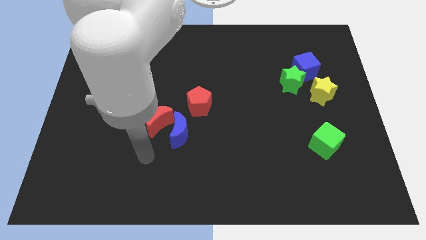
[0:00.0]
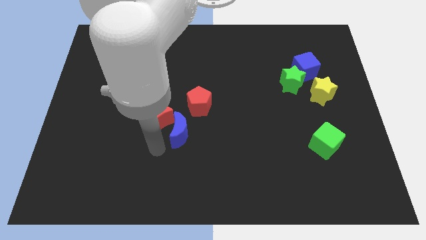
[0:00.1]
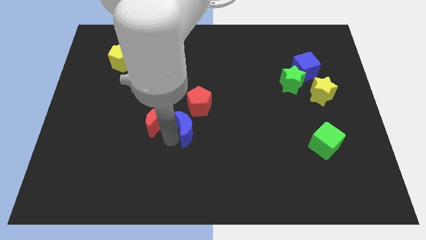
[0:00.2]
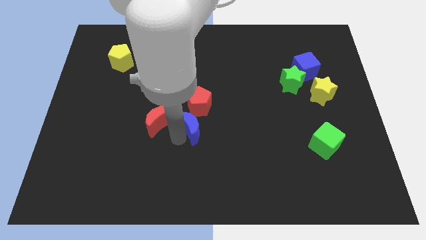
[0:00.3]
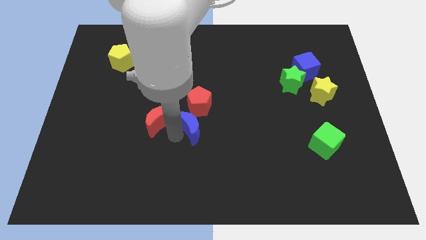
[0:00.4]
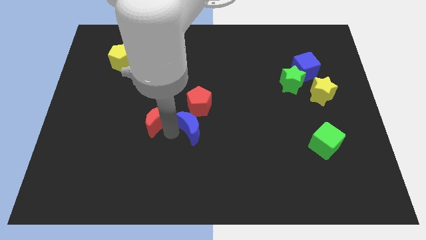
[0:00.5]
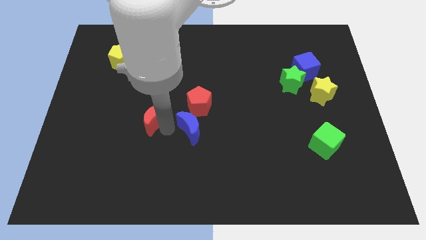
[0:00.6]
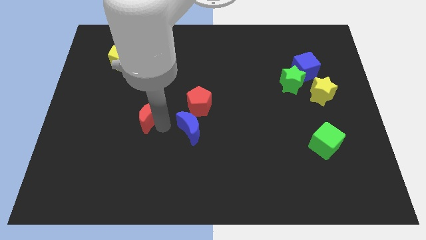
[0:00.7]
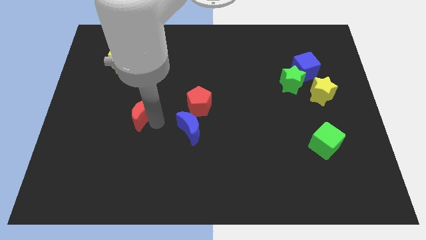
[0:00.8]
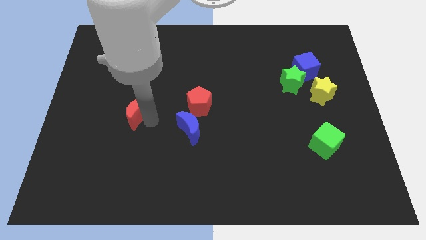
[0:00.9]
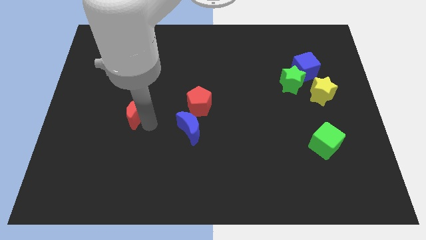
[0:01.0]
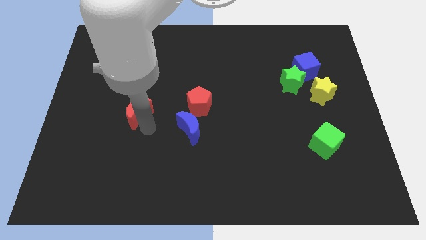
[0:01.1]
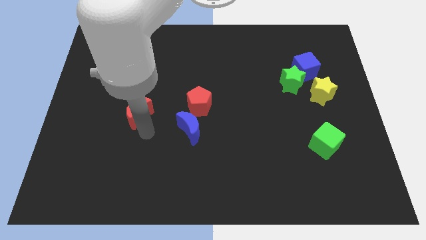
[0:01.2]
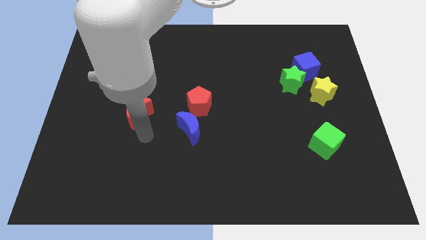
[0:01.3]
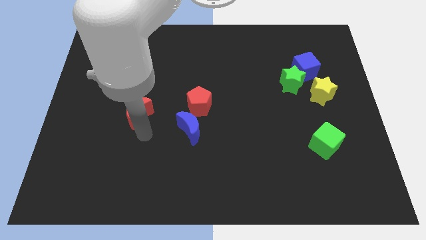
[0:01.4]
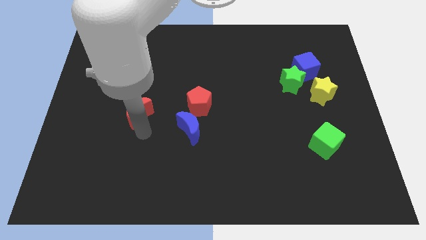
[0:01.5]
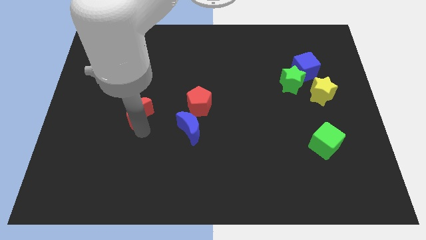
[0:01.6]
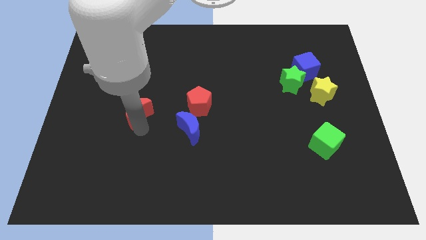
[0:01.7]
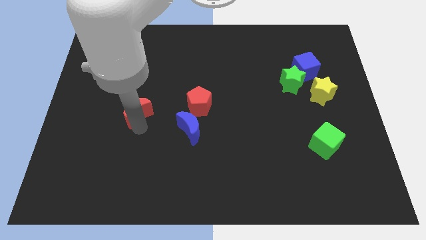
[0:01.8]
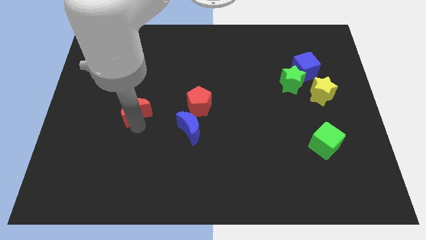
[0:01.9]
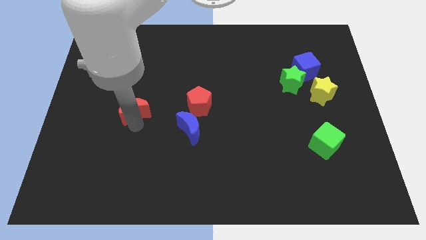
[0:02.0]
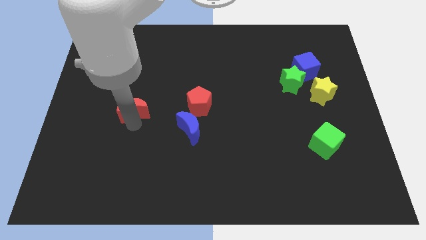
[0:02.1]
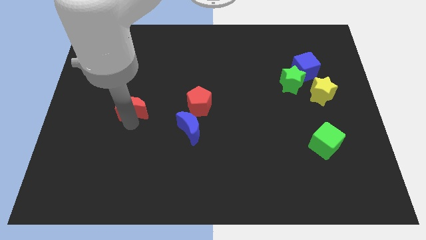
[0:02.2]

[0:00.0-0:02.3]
slide the red moon up and then to the left a bit

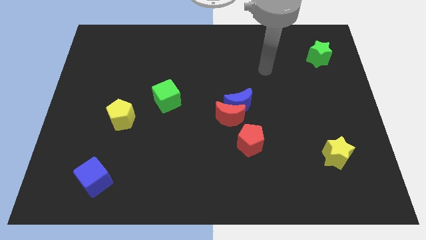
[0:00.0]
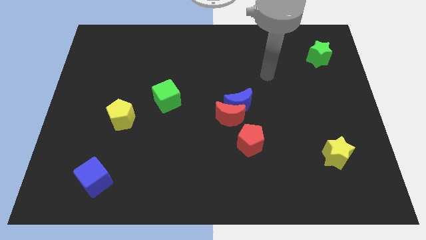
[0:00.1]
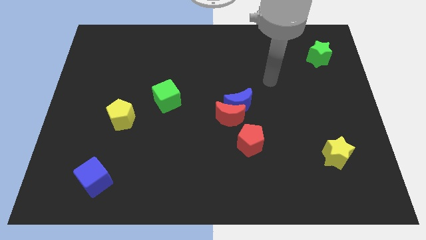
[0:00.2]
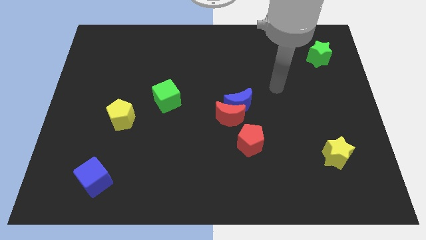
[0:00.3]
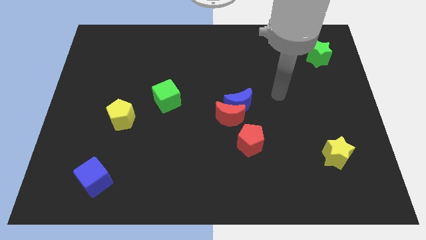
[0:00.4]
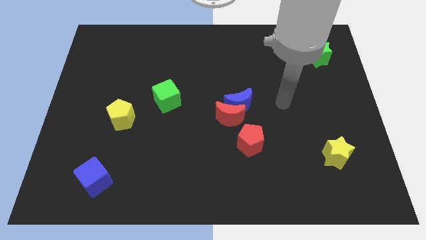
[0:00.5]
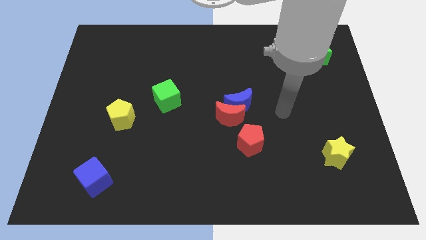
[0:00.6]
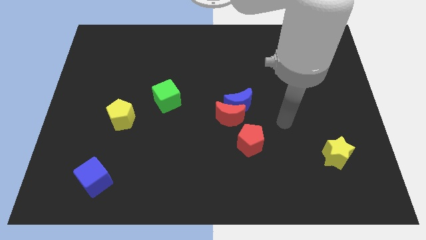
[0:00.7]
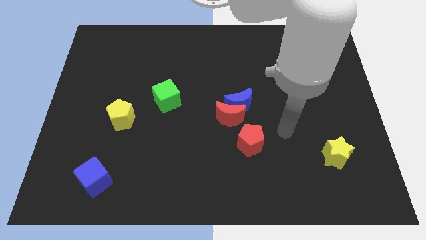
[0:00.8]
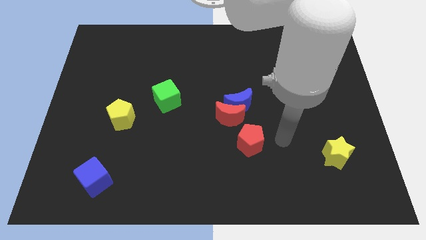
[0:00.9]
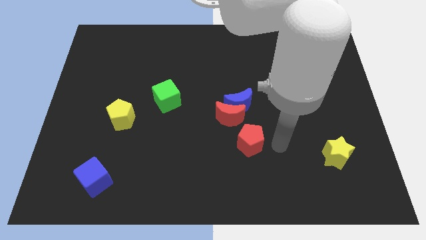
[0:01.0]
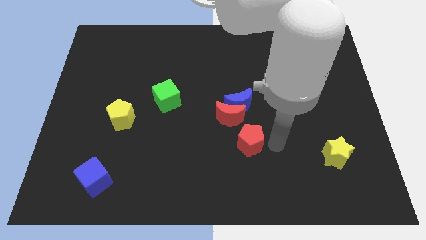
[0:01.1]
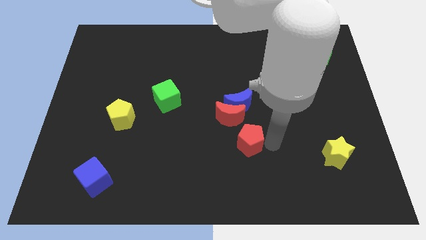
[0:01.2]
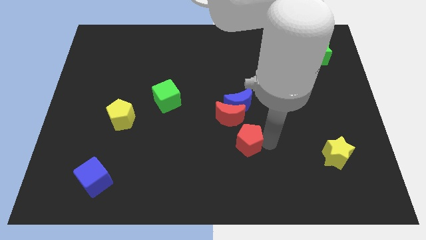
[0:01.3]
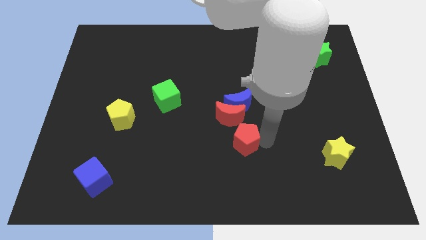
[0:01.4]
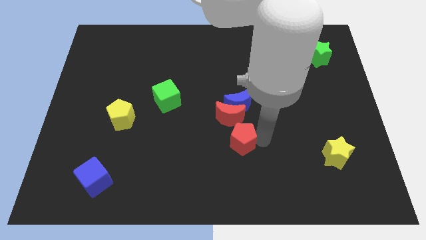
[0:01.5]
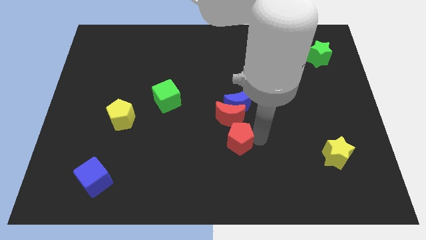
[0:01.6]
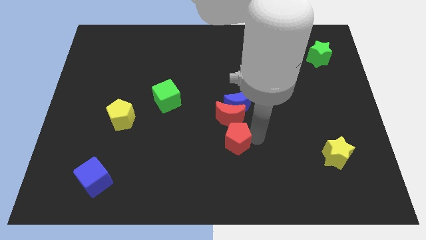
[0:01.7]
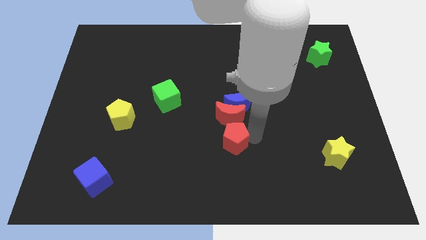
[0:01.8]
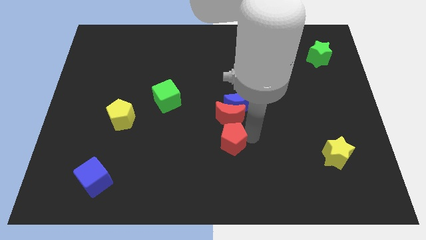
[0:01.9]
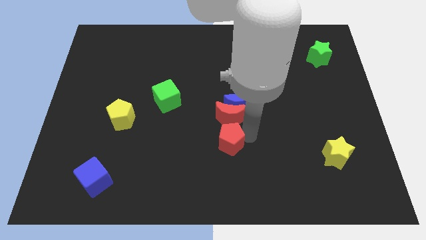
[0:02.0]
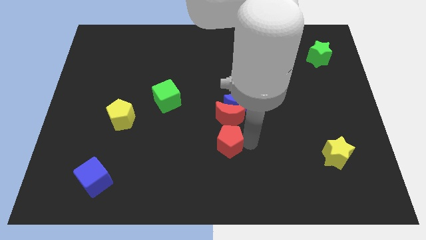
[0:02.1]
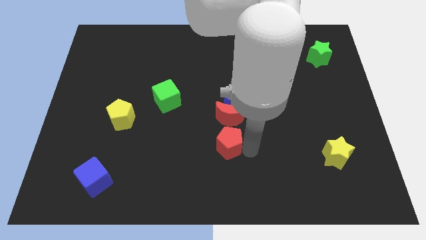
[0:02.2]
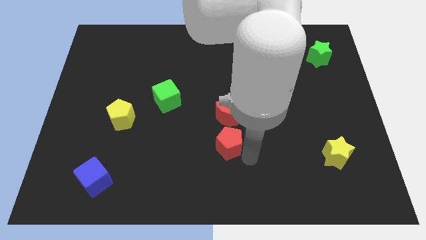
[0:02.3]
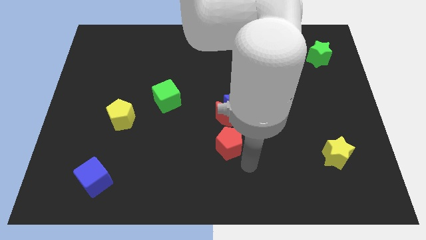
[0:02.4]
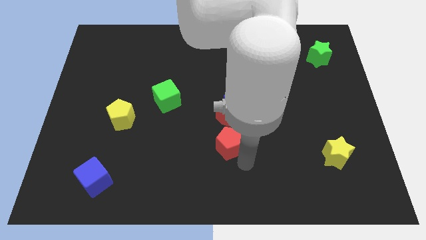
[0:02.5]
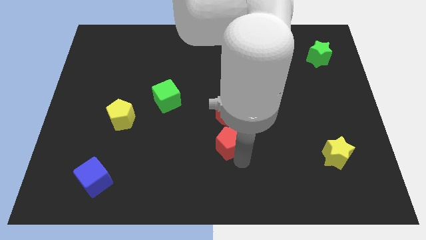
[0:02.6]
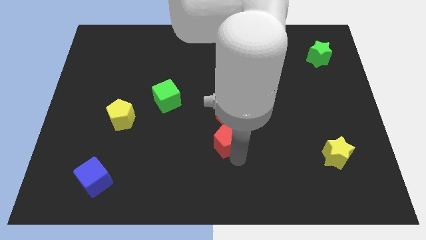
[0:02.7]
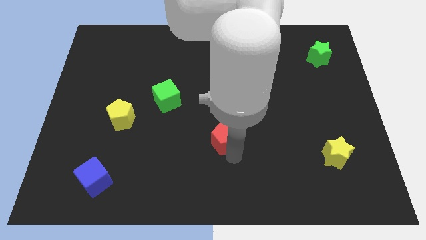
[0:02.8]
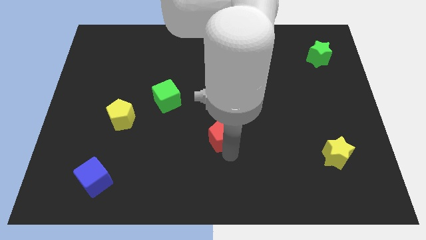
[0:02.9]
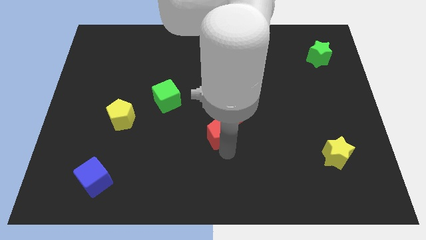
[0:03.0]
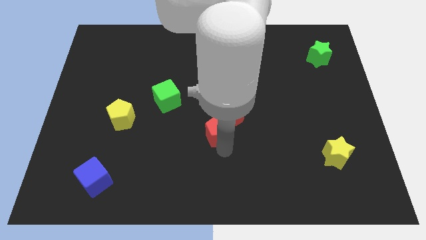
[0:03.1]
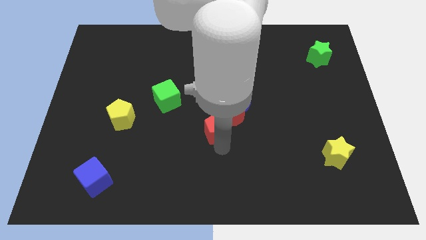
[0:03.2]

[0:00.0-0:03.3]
slightly push the red pentagon diagonally up and left

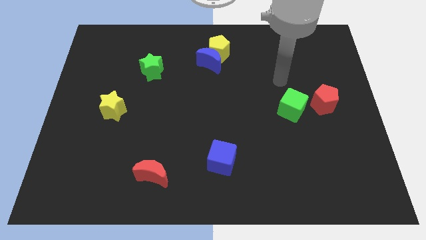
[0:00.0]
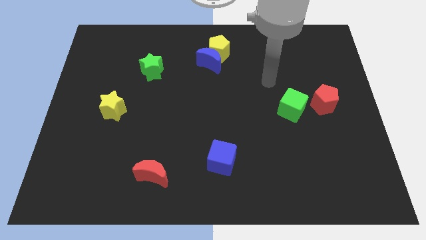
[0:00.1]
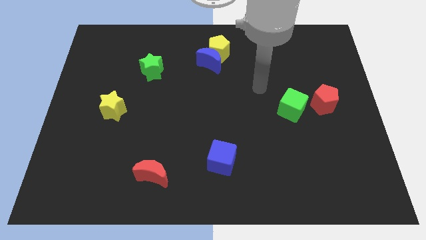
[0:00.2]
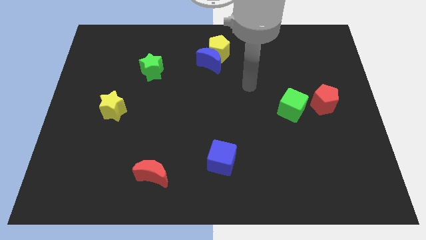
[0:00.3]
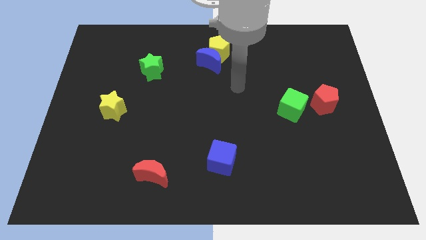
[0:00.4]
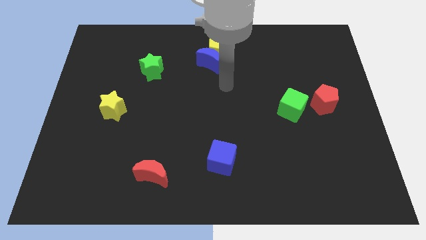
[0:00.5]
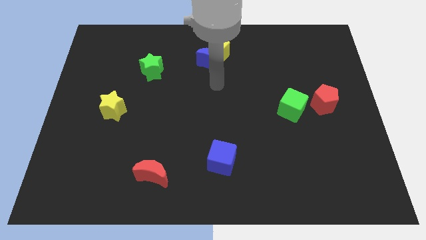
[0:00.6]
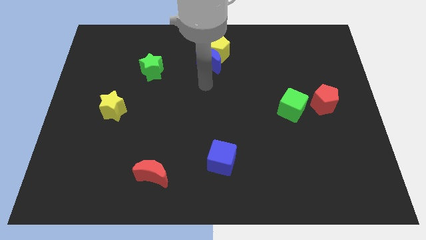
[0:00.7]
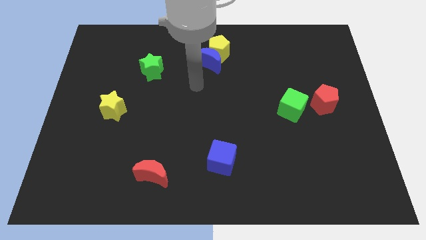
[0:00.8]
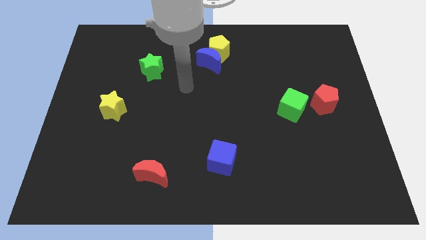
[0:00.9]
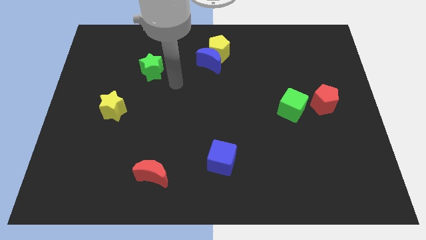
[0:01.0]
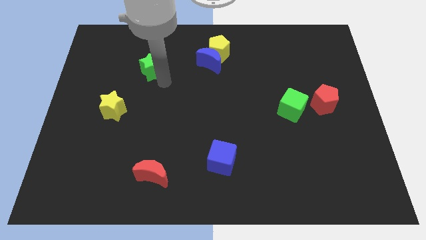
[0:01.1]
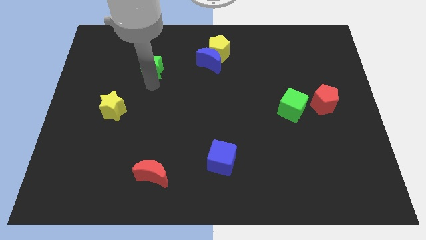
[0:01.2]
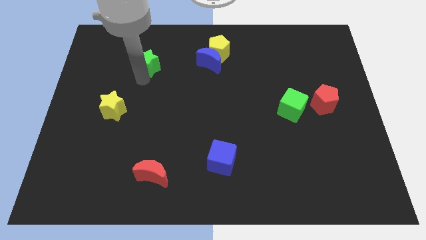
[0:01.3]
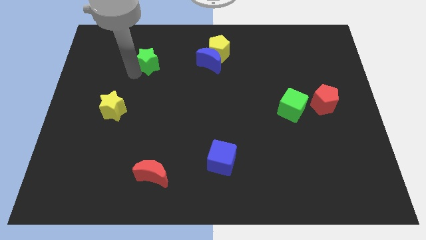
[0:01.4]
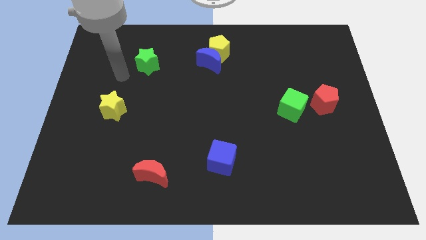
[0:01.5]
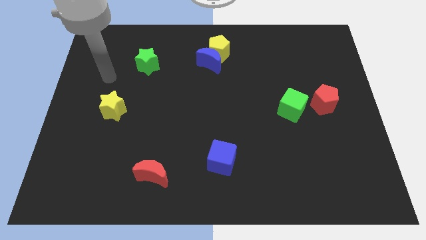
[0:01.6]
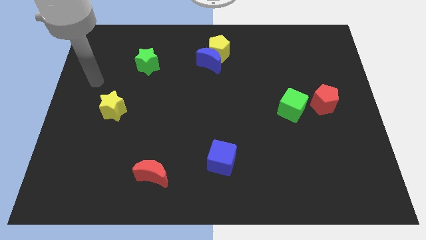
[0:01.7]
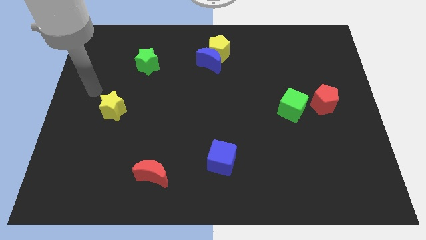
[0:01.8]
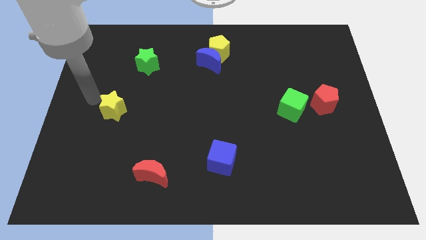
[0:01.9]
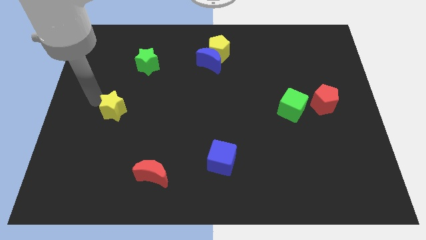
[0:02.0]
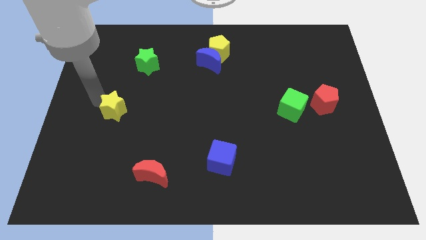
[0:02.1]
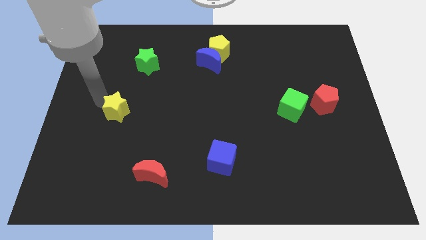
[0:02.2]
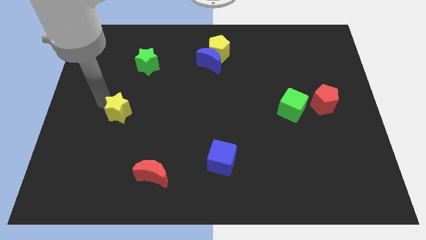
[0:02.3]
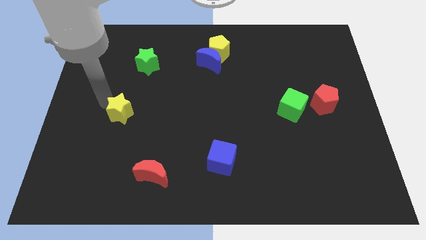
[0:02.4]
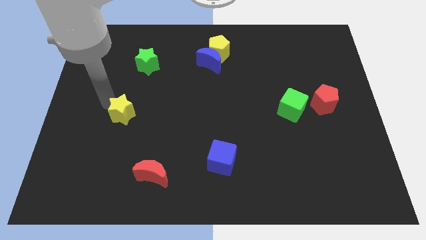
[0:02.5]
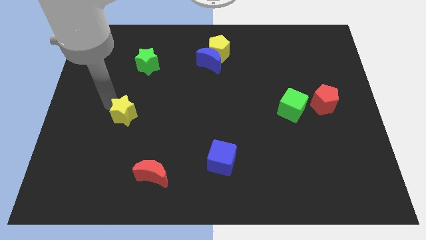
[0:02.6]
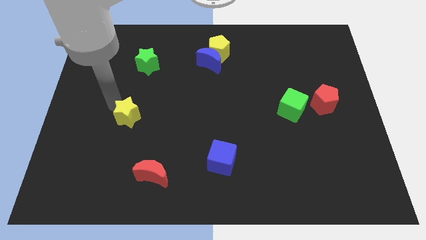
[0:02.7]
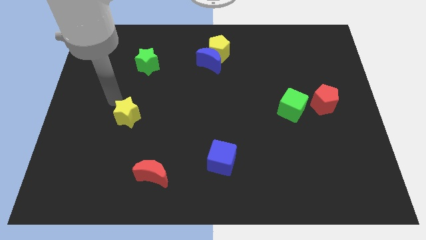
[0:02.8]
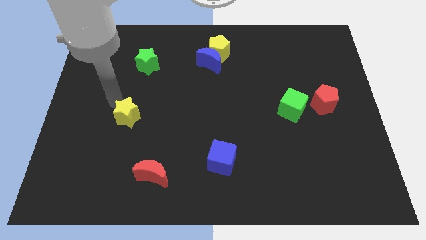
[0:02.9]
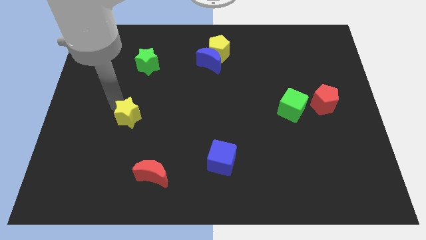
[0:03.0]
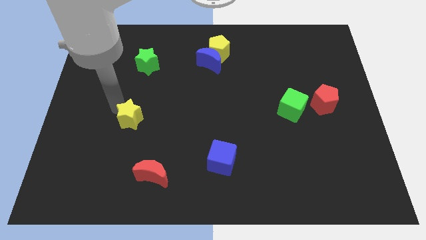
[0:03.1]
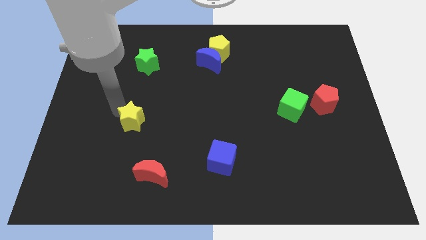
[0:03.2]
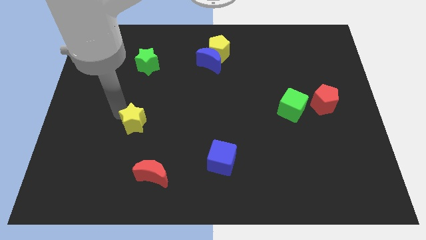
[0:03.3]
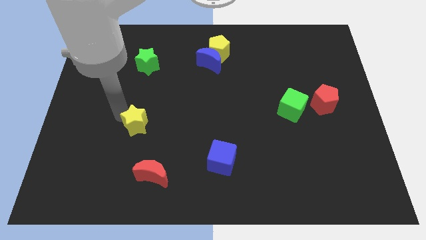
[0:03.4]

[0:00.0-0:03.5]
move the yellow star a bit downwards and right diagonally
